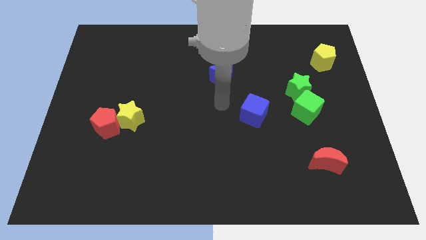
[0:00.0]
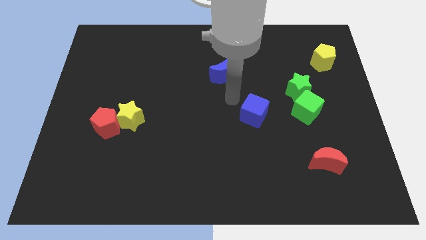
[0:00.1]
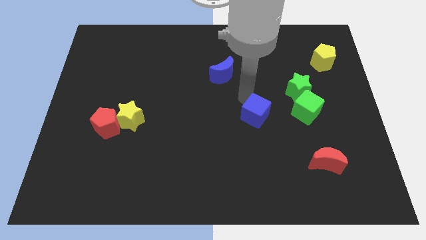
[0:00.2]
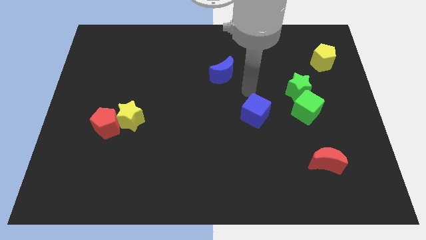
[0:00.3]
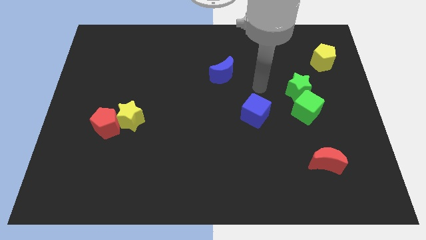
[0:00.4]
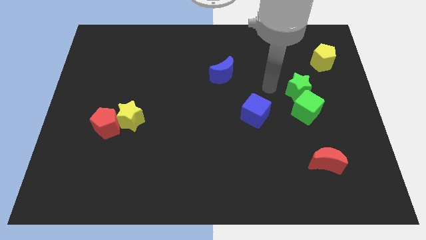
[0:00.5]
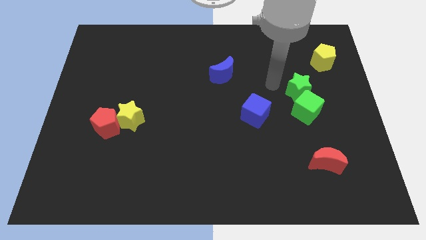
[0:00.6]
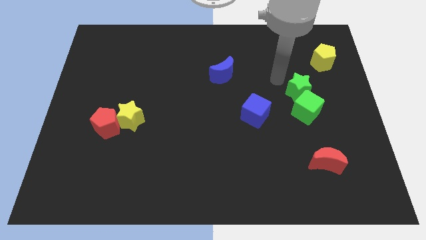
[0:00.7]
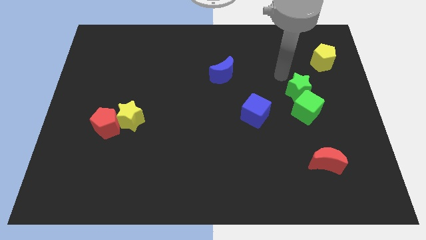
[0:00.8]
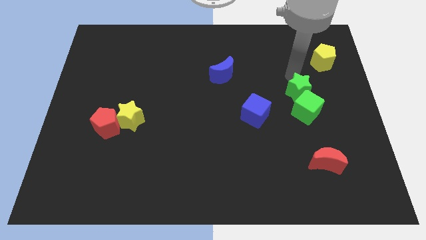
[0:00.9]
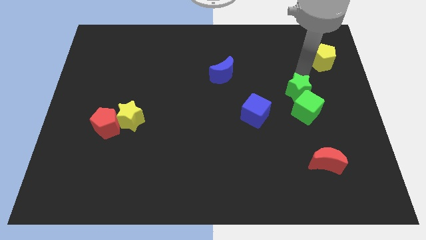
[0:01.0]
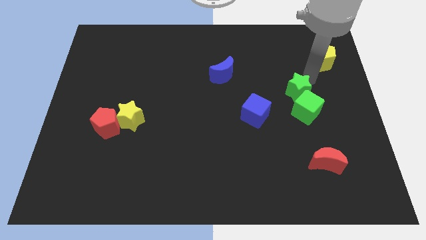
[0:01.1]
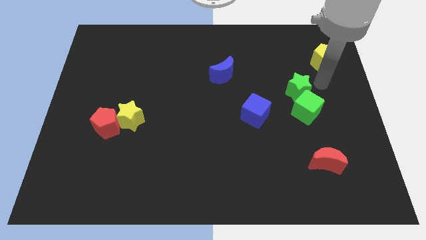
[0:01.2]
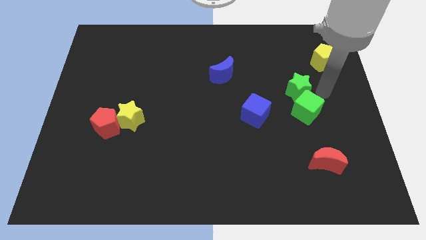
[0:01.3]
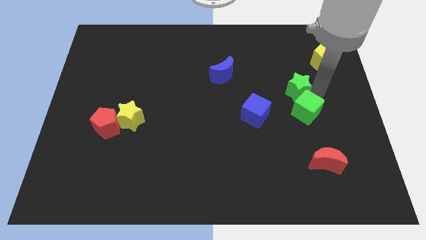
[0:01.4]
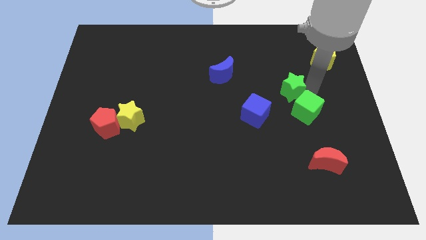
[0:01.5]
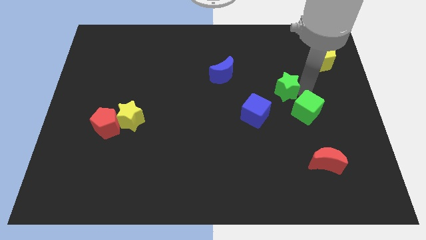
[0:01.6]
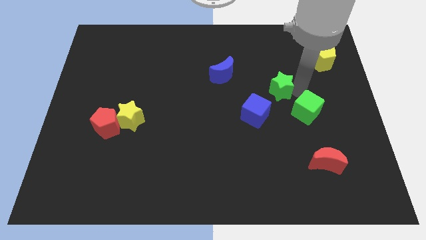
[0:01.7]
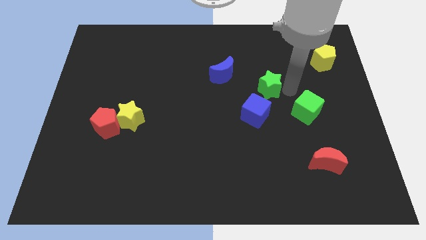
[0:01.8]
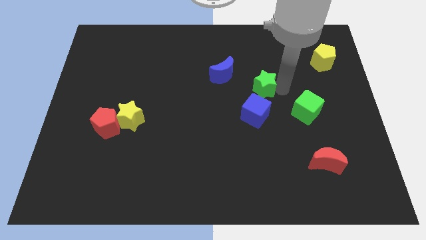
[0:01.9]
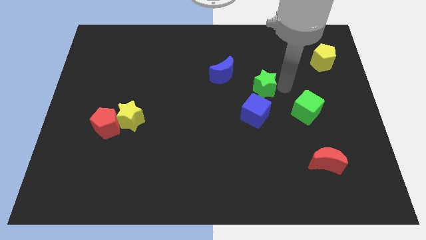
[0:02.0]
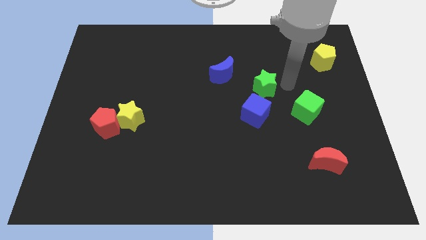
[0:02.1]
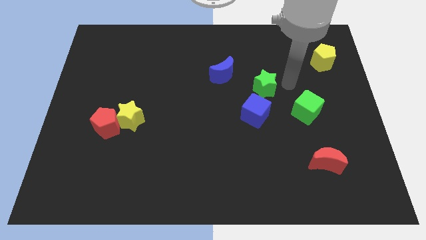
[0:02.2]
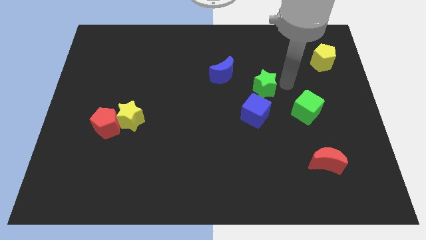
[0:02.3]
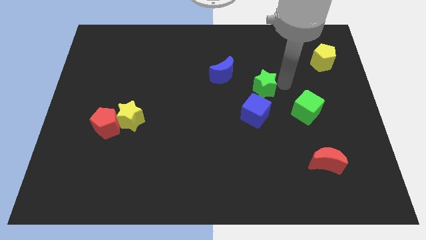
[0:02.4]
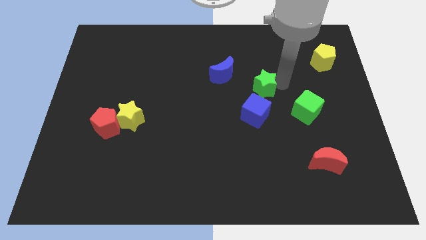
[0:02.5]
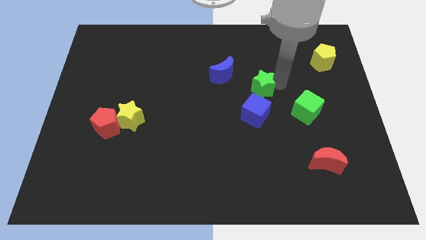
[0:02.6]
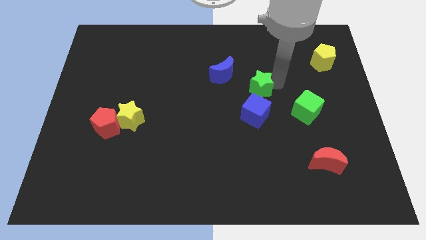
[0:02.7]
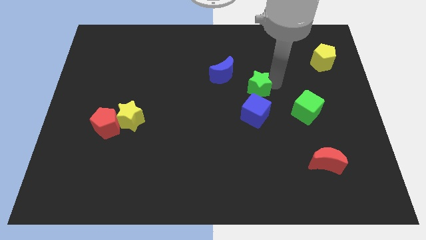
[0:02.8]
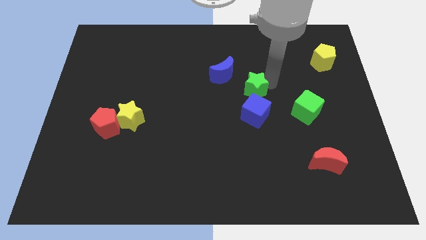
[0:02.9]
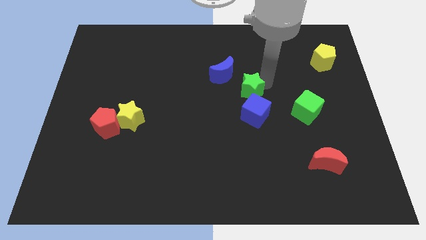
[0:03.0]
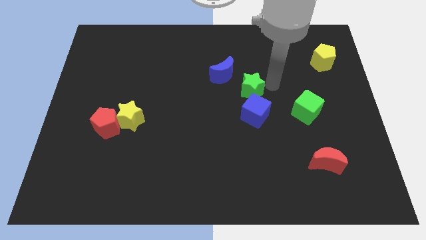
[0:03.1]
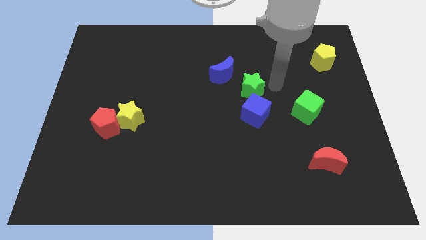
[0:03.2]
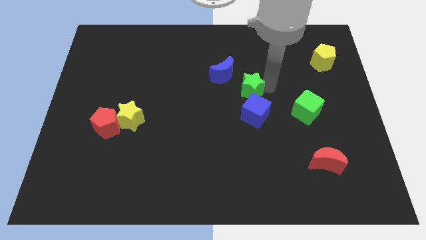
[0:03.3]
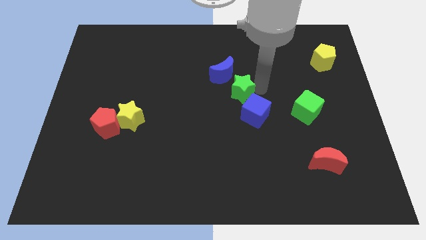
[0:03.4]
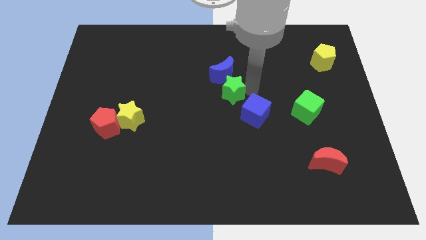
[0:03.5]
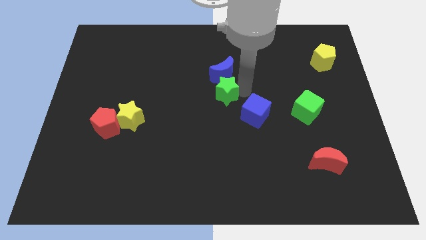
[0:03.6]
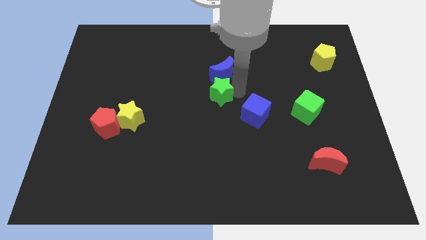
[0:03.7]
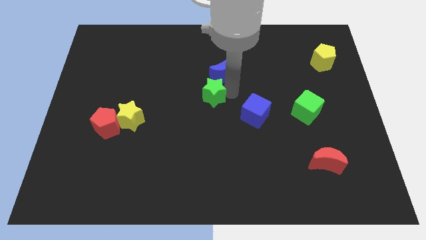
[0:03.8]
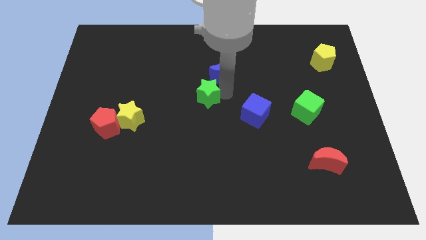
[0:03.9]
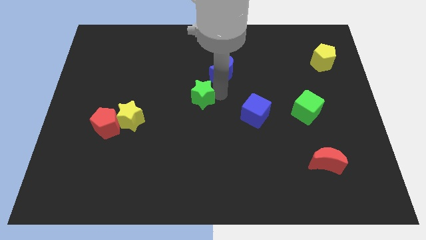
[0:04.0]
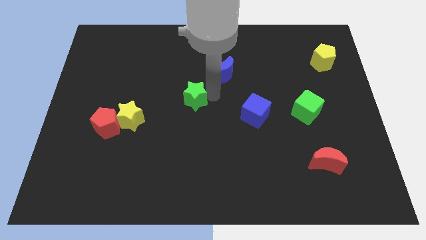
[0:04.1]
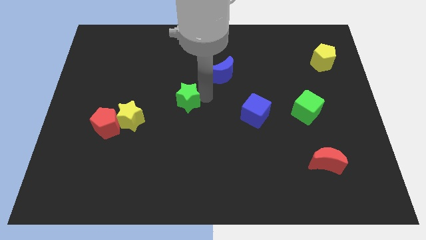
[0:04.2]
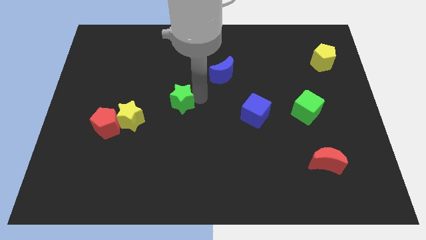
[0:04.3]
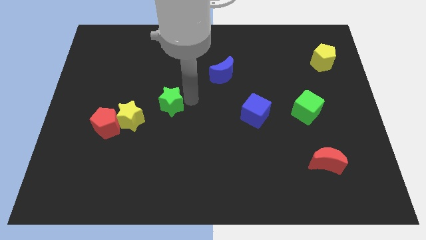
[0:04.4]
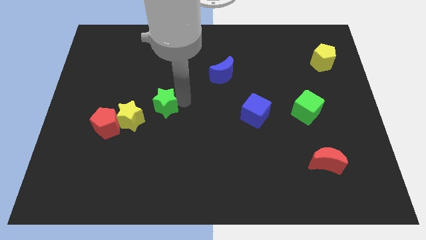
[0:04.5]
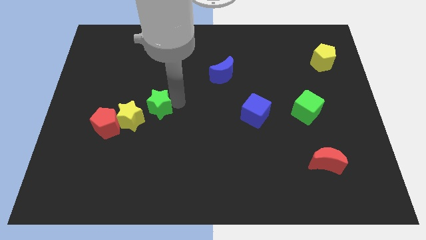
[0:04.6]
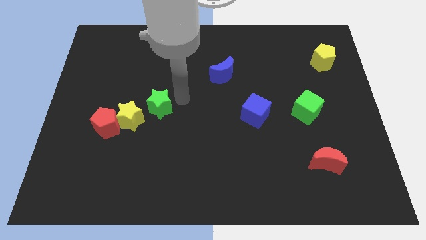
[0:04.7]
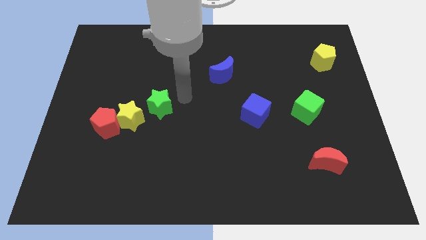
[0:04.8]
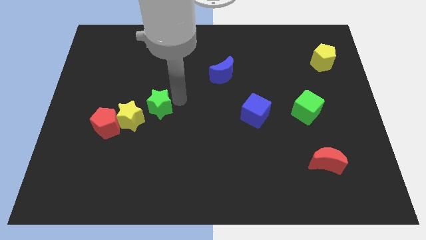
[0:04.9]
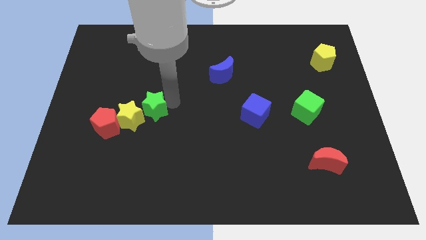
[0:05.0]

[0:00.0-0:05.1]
put the green star towards the yellow star

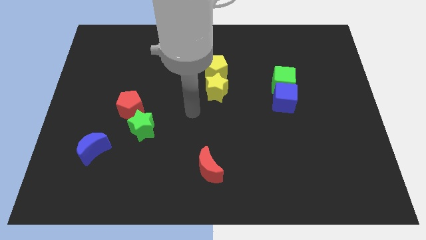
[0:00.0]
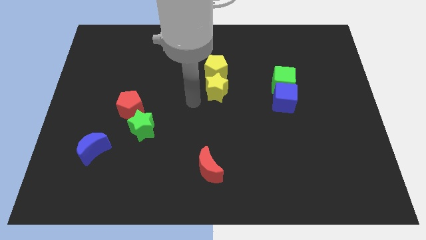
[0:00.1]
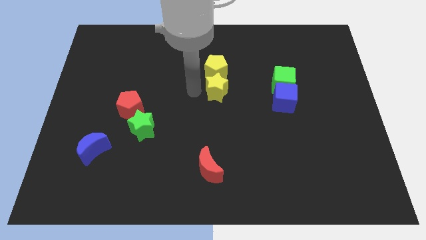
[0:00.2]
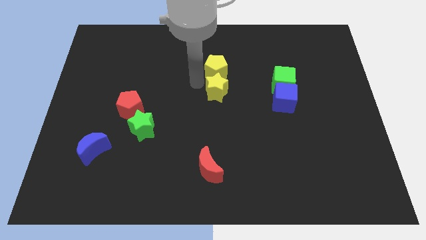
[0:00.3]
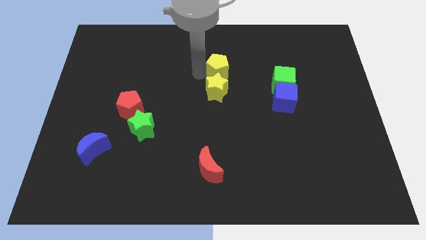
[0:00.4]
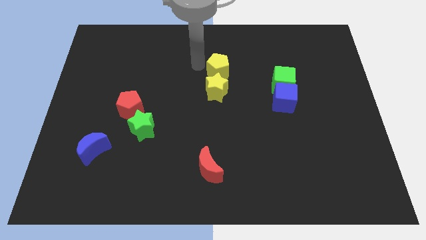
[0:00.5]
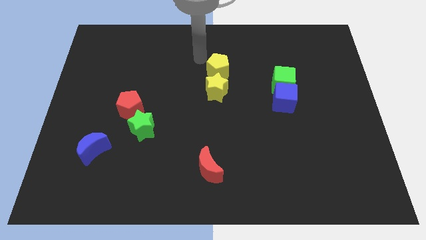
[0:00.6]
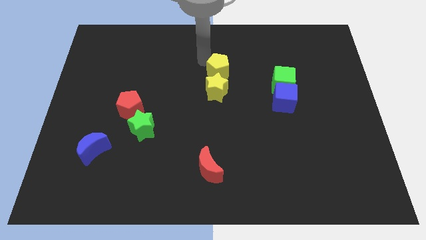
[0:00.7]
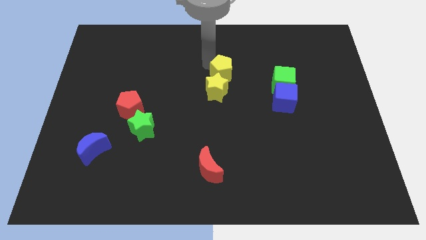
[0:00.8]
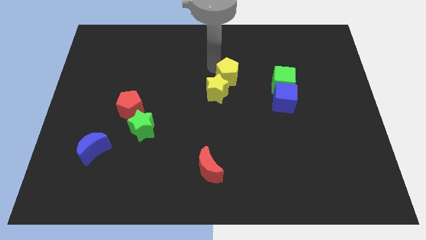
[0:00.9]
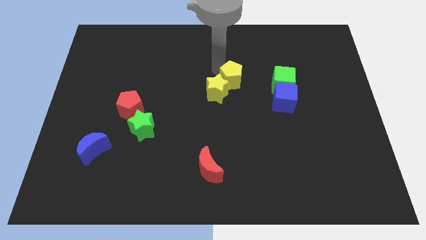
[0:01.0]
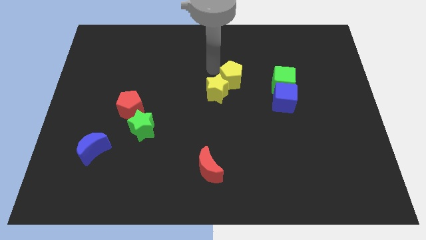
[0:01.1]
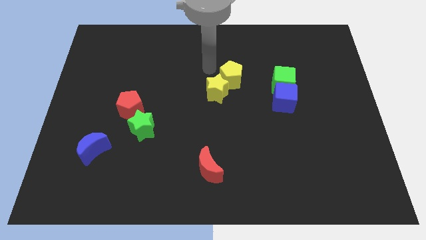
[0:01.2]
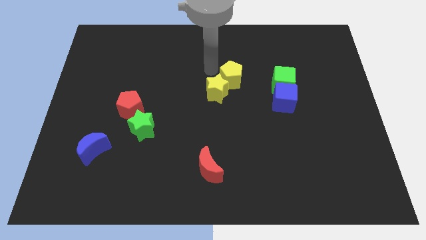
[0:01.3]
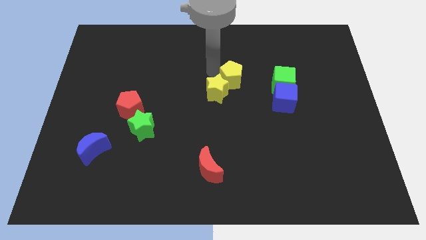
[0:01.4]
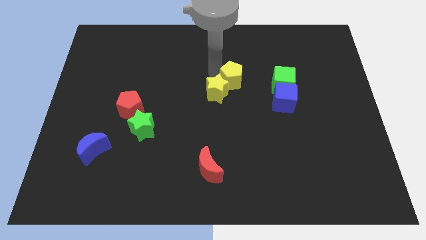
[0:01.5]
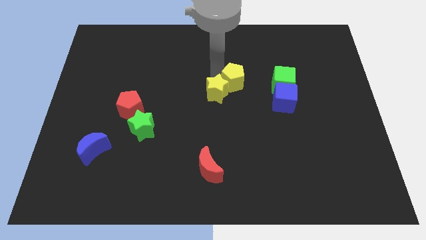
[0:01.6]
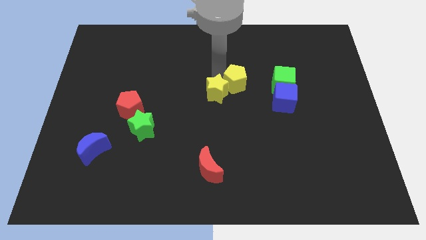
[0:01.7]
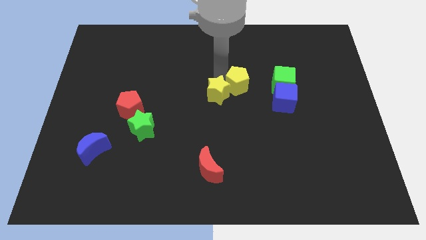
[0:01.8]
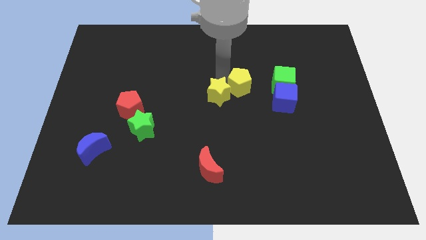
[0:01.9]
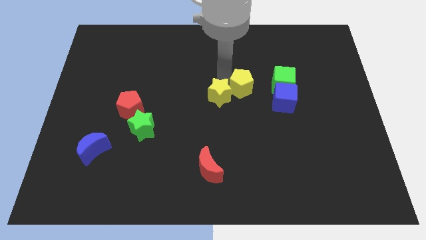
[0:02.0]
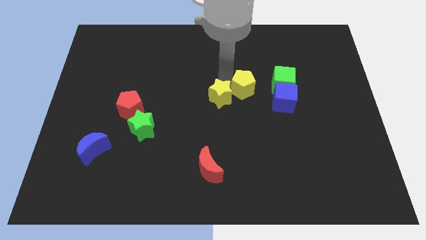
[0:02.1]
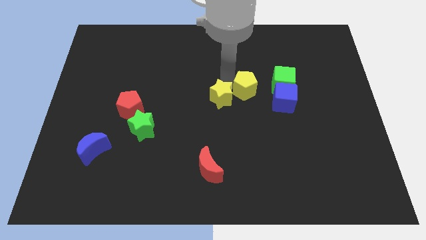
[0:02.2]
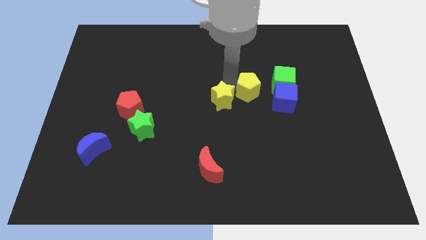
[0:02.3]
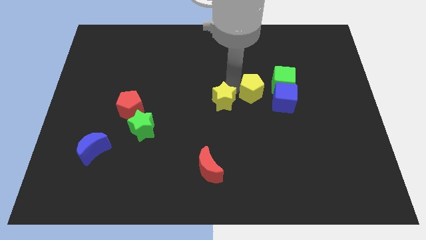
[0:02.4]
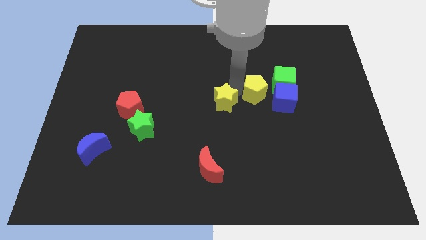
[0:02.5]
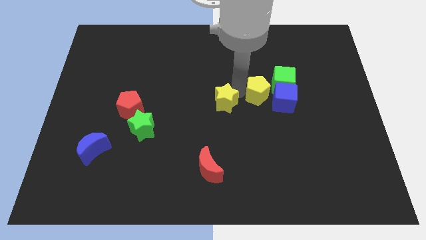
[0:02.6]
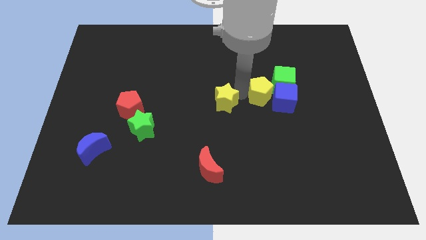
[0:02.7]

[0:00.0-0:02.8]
put the yellow pentagon to the blue cube
